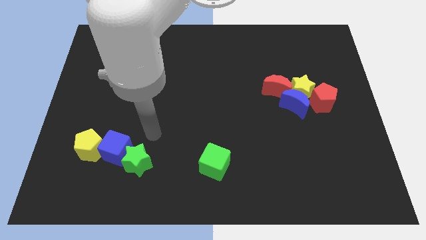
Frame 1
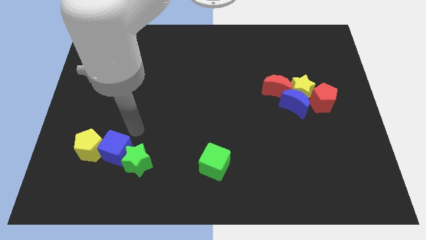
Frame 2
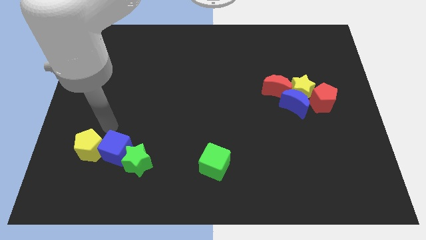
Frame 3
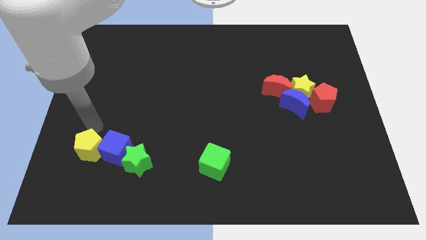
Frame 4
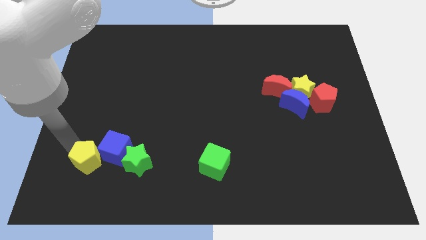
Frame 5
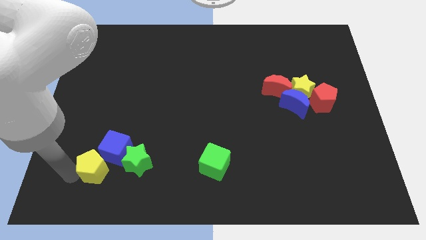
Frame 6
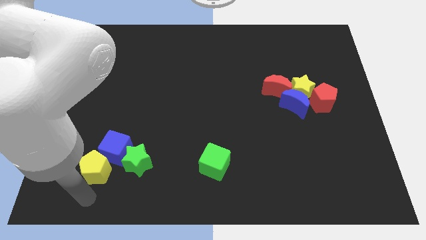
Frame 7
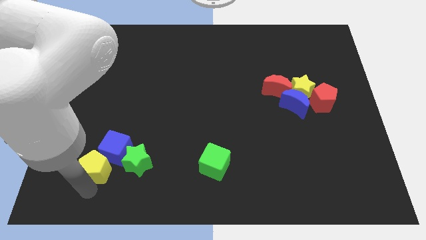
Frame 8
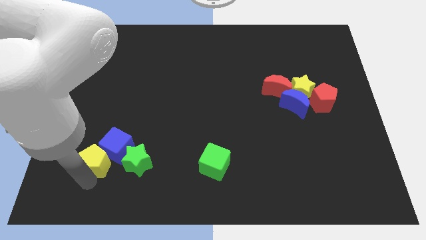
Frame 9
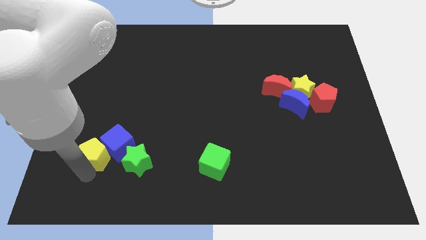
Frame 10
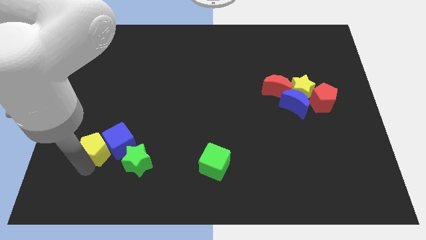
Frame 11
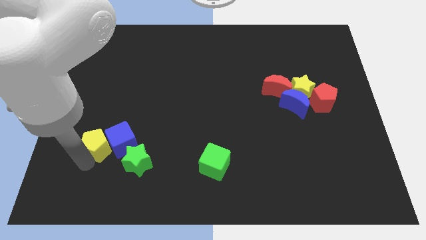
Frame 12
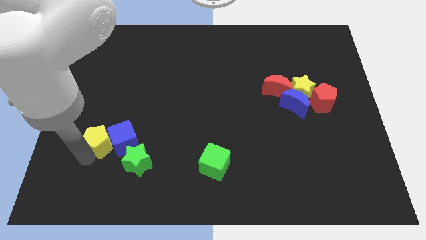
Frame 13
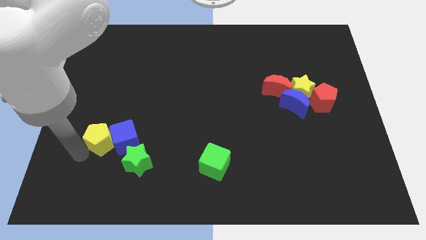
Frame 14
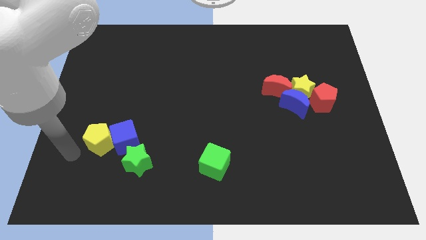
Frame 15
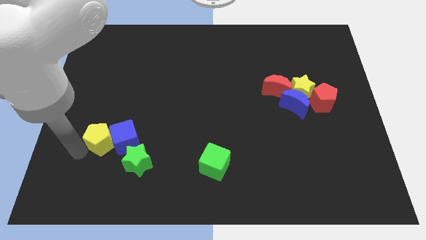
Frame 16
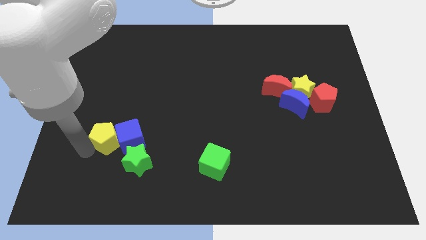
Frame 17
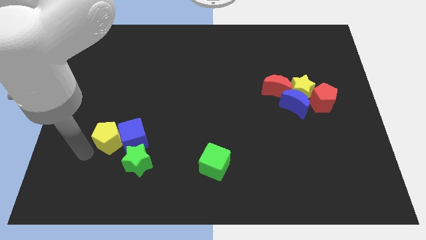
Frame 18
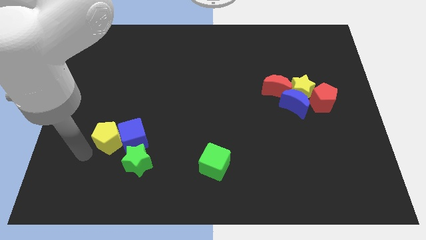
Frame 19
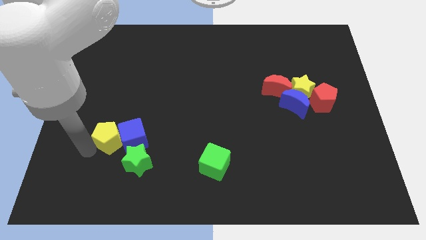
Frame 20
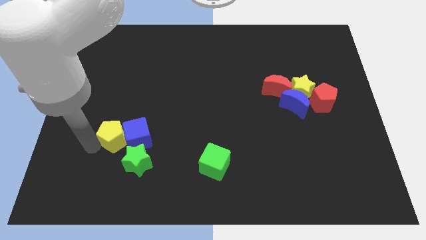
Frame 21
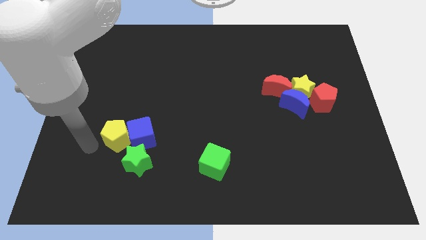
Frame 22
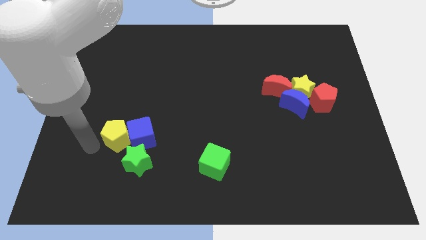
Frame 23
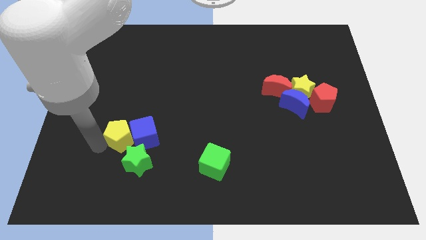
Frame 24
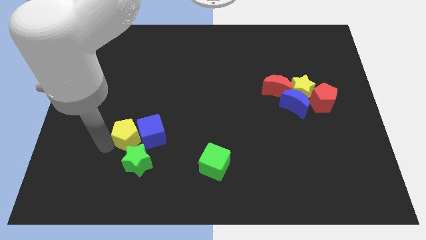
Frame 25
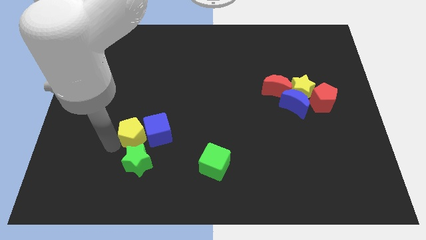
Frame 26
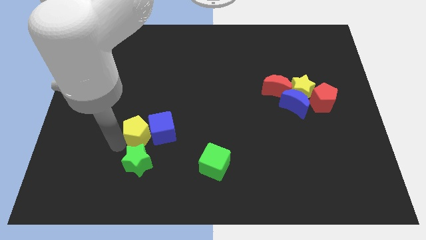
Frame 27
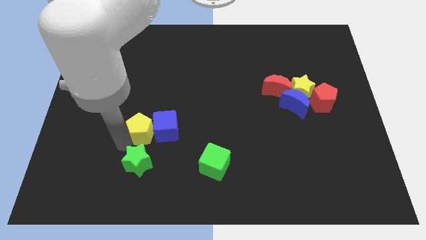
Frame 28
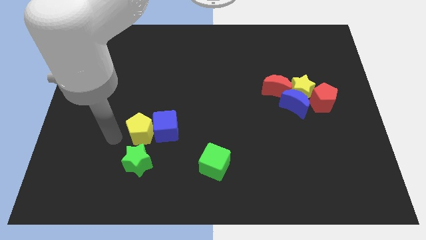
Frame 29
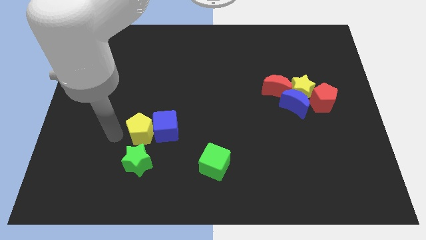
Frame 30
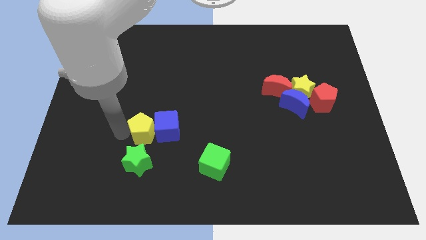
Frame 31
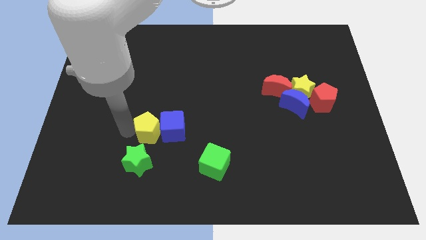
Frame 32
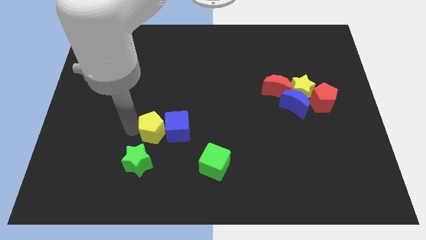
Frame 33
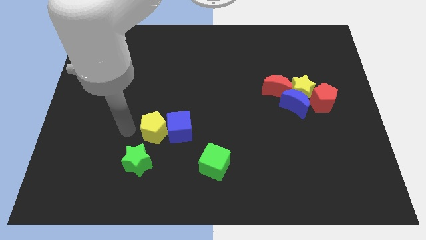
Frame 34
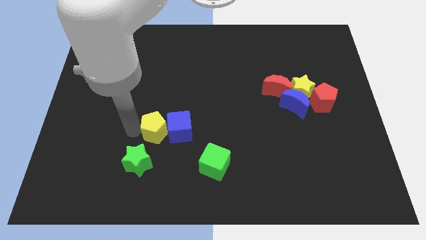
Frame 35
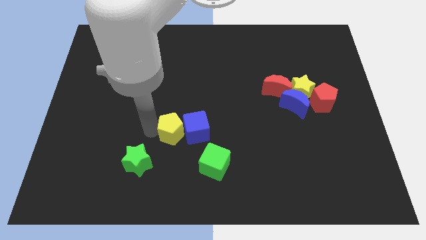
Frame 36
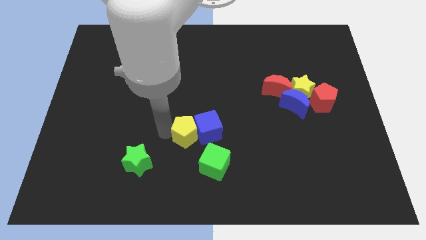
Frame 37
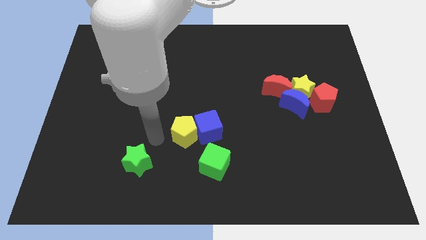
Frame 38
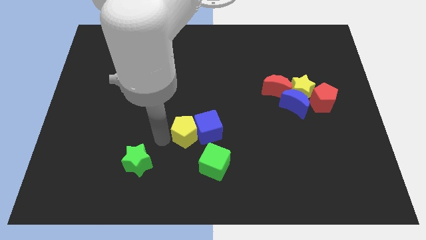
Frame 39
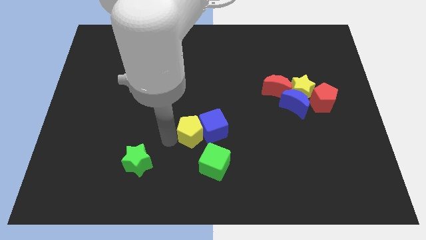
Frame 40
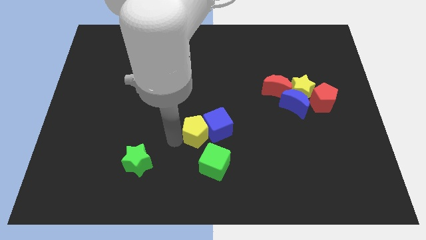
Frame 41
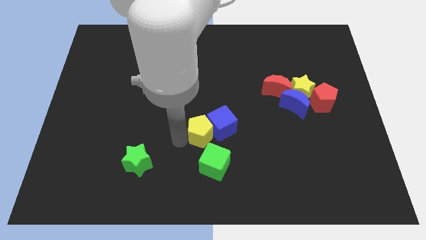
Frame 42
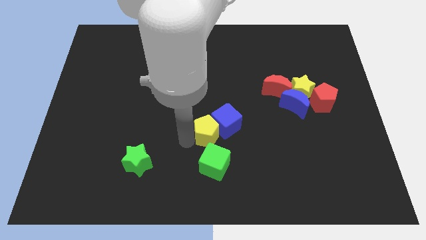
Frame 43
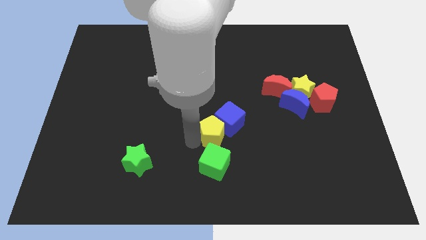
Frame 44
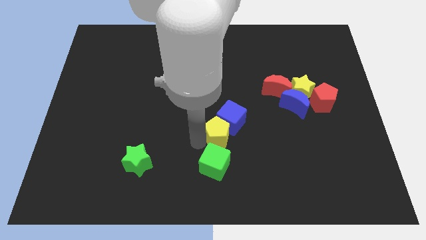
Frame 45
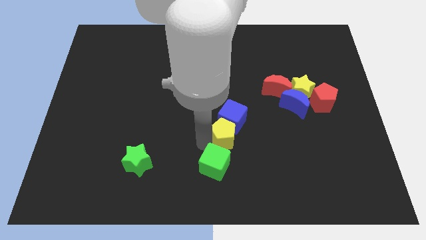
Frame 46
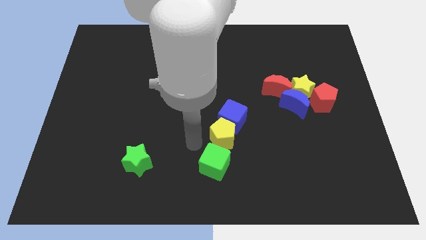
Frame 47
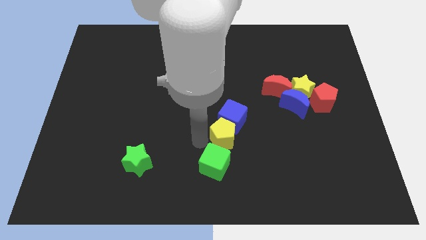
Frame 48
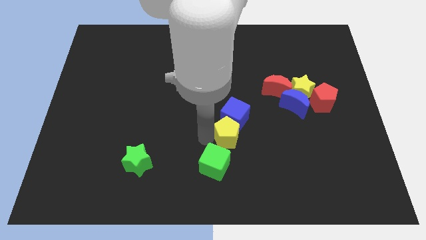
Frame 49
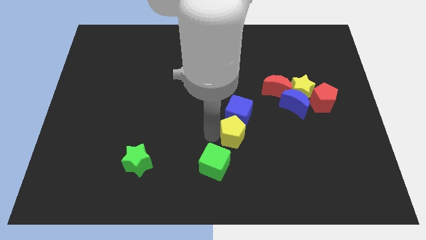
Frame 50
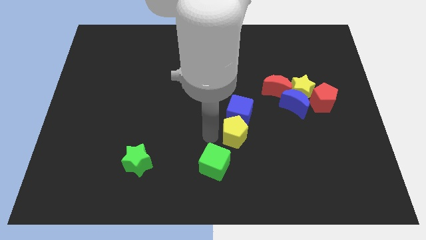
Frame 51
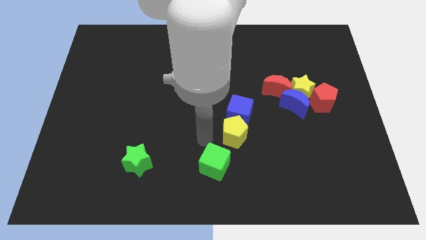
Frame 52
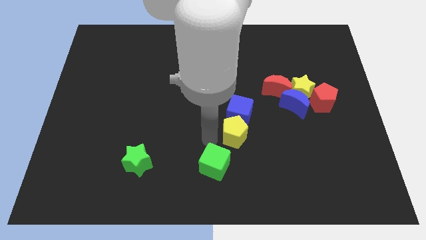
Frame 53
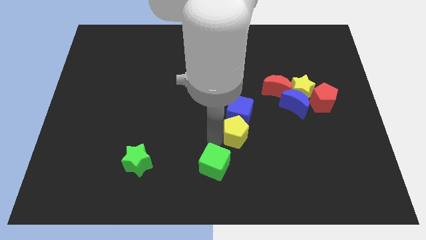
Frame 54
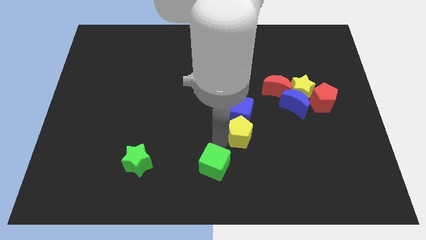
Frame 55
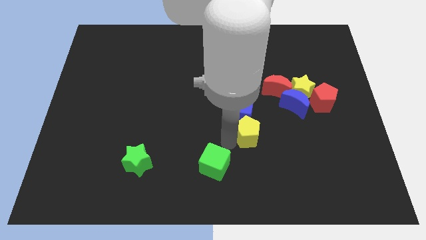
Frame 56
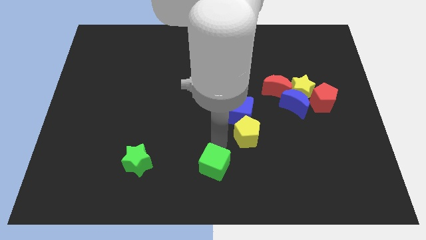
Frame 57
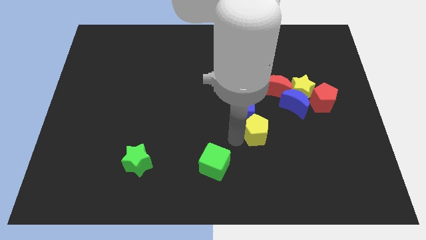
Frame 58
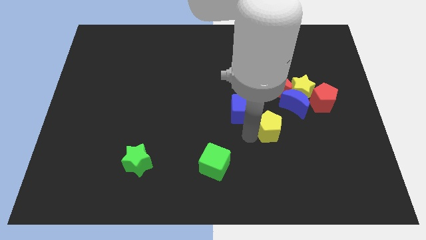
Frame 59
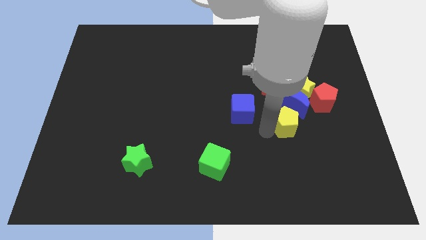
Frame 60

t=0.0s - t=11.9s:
push the yellow pentagon to the bottom left of the red pentagon

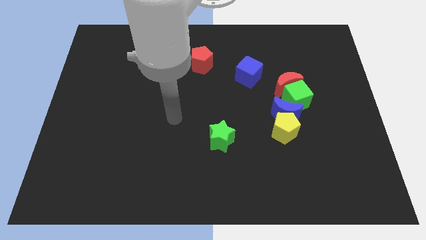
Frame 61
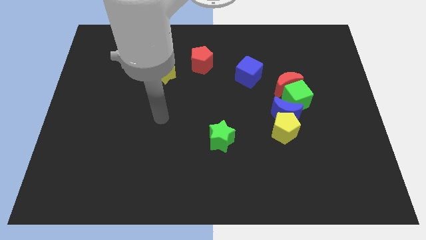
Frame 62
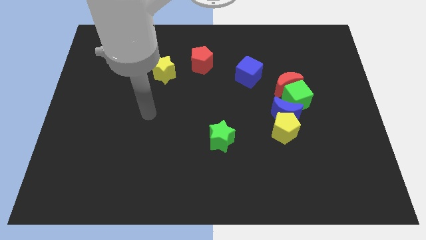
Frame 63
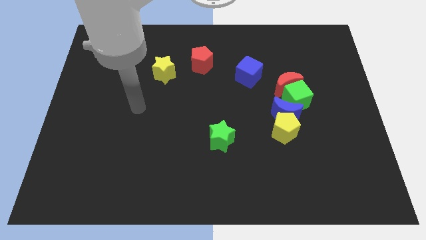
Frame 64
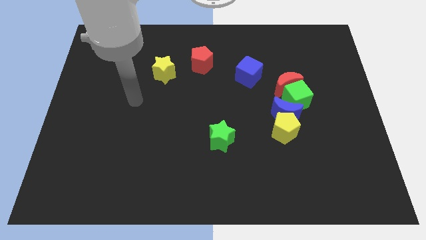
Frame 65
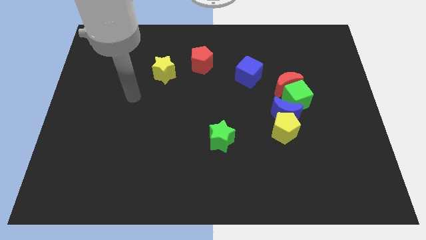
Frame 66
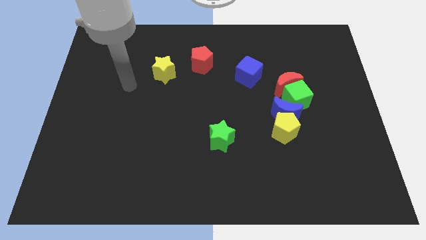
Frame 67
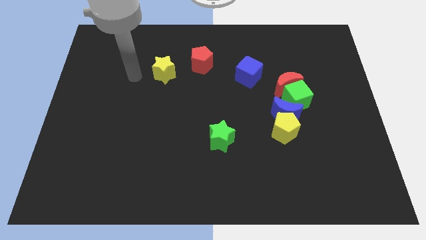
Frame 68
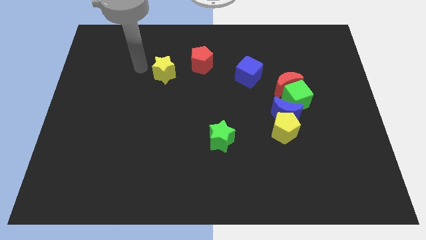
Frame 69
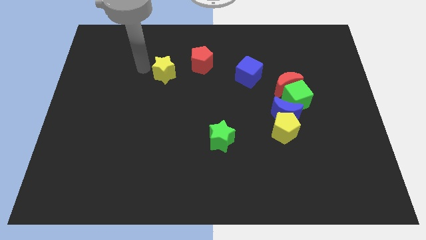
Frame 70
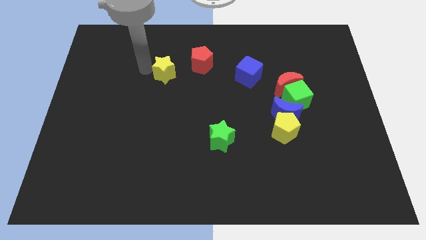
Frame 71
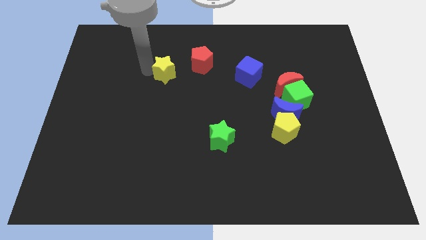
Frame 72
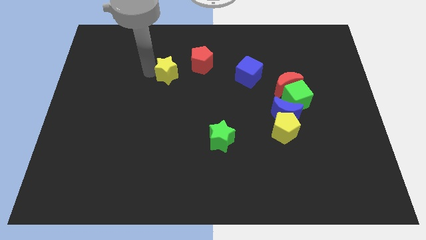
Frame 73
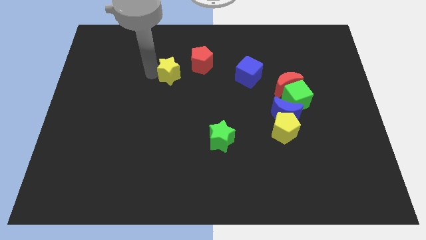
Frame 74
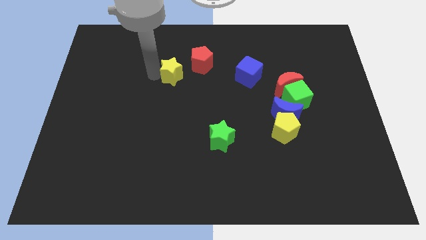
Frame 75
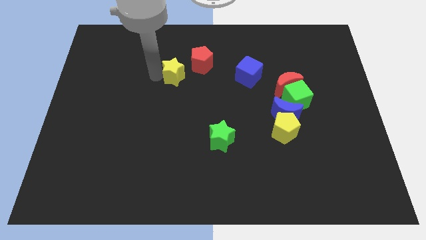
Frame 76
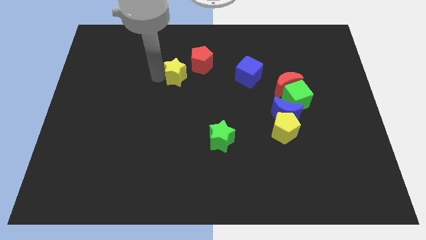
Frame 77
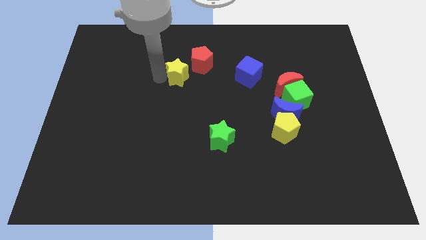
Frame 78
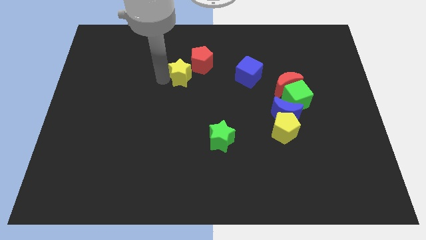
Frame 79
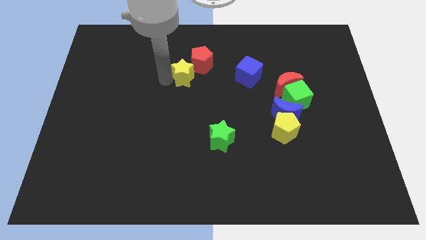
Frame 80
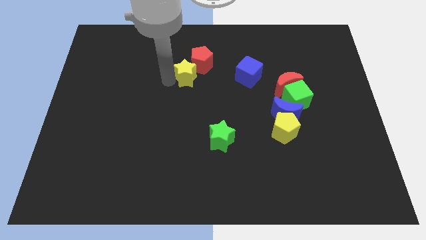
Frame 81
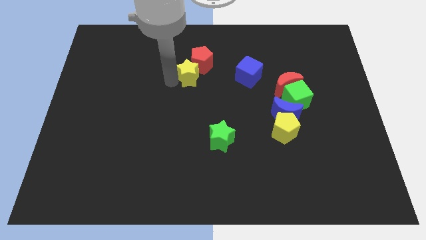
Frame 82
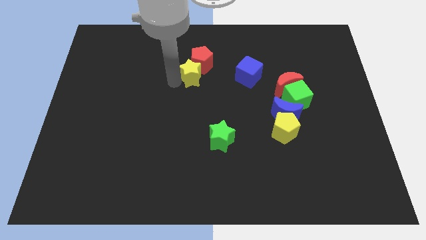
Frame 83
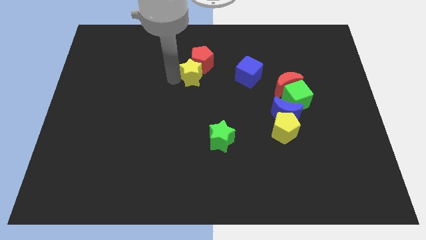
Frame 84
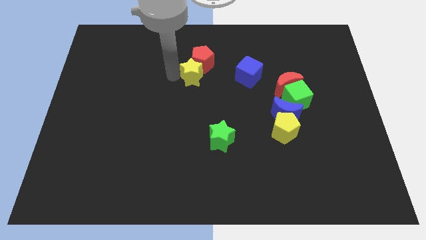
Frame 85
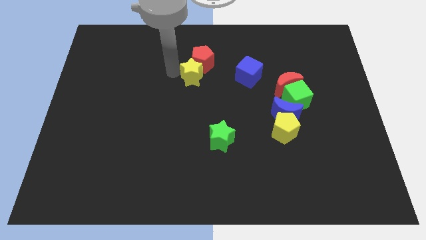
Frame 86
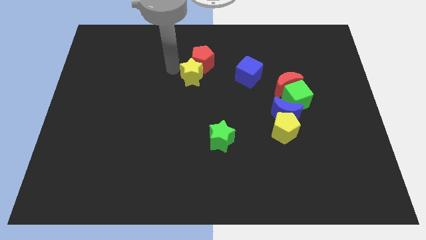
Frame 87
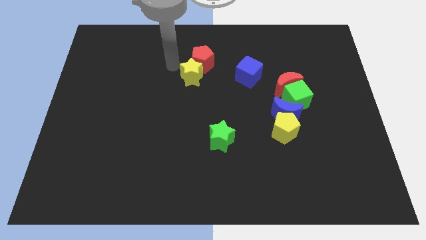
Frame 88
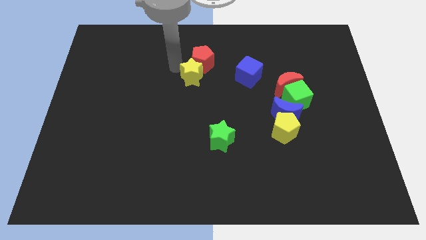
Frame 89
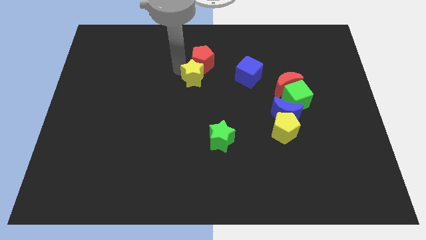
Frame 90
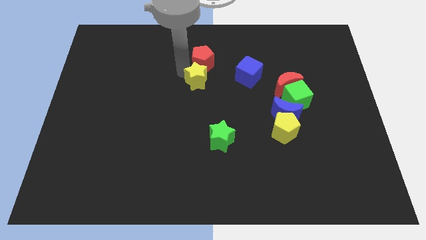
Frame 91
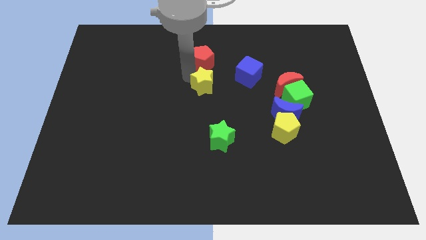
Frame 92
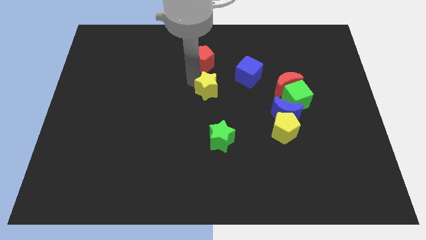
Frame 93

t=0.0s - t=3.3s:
push the yellow star diagonally down and to the left of the blue cube
